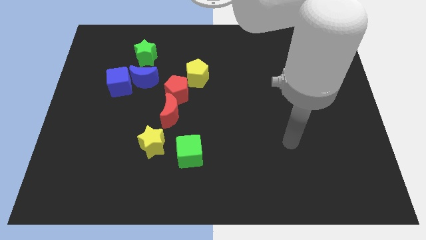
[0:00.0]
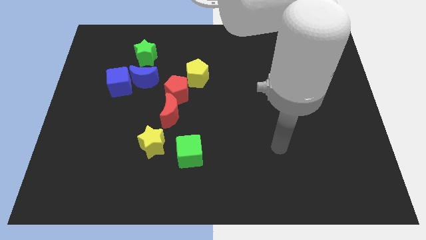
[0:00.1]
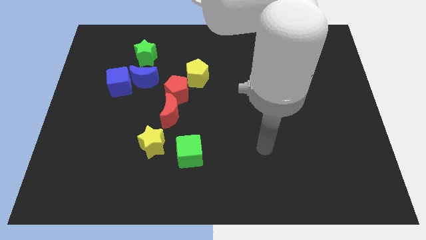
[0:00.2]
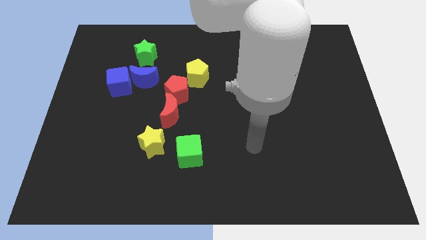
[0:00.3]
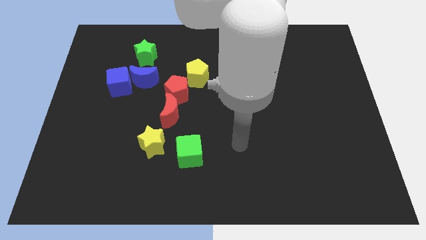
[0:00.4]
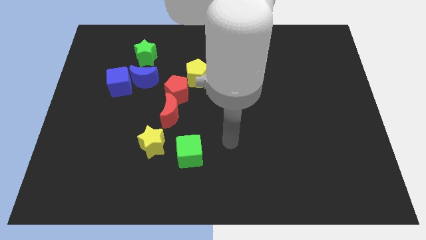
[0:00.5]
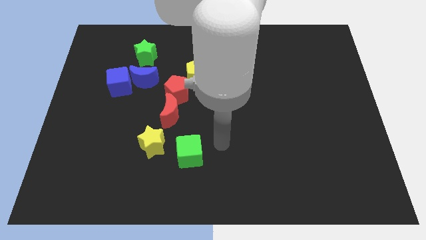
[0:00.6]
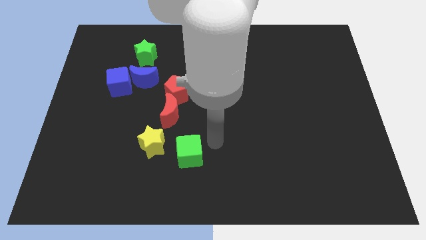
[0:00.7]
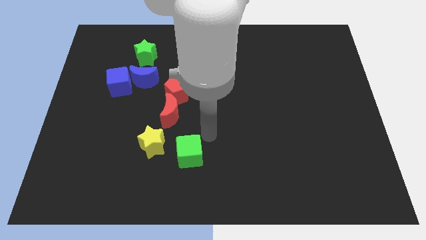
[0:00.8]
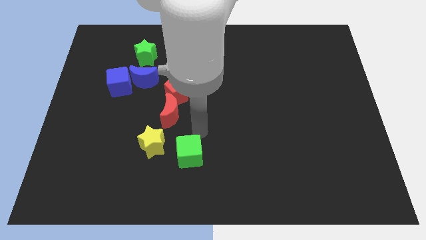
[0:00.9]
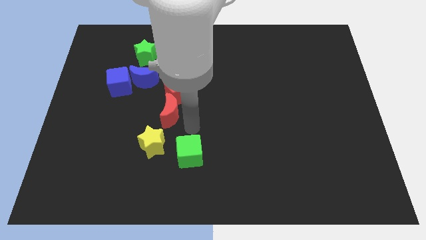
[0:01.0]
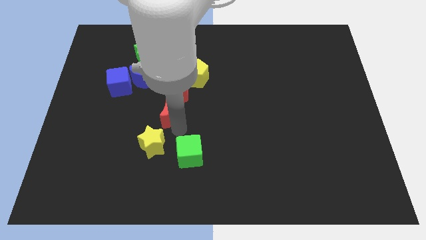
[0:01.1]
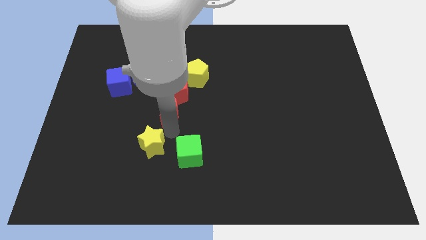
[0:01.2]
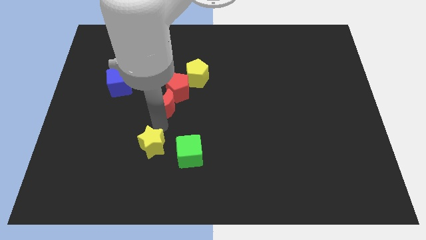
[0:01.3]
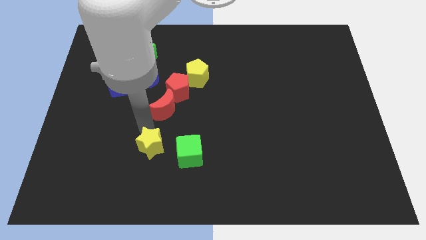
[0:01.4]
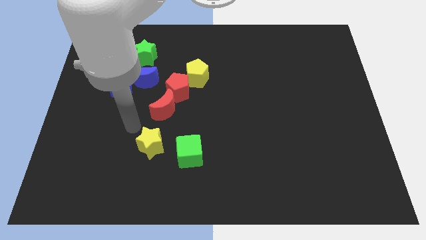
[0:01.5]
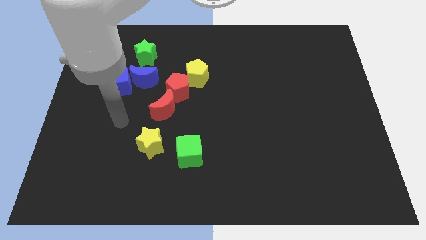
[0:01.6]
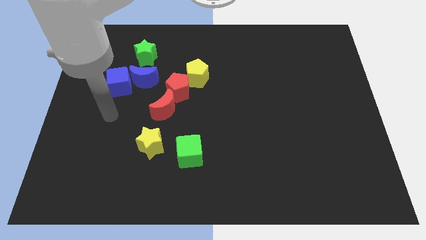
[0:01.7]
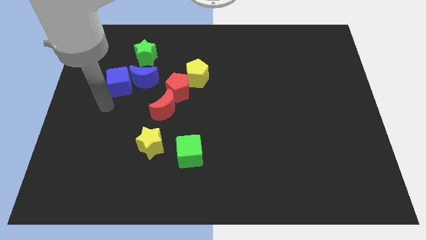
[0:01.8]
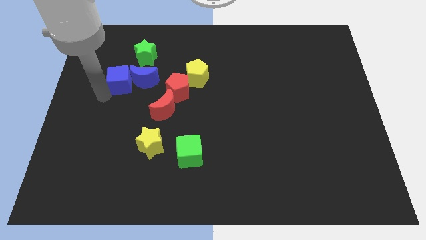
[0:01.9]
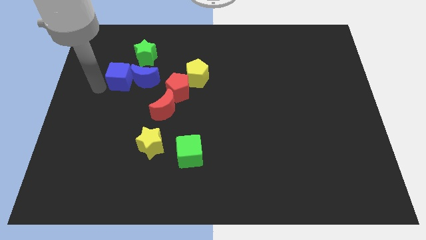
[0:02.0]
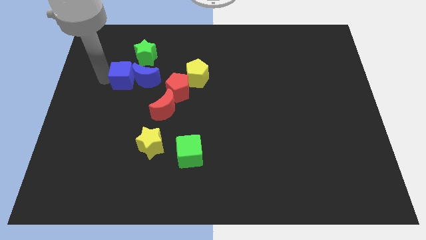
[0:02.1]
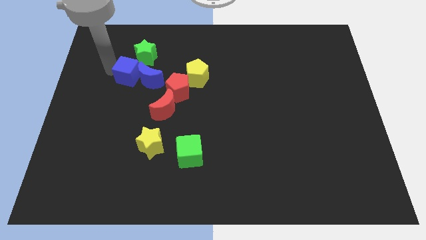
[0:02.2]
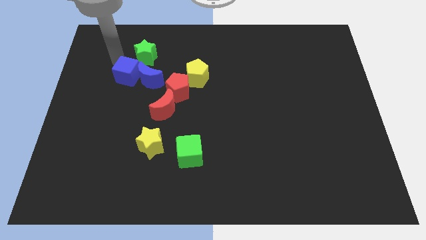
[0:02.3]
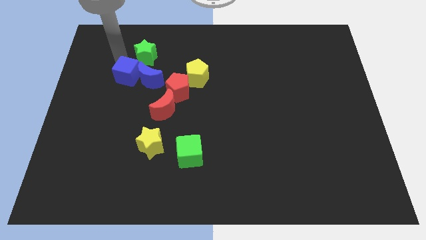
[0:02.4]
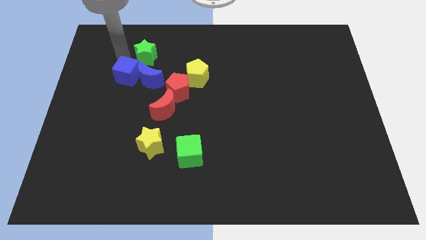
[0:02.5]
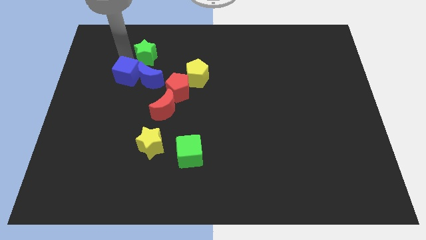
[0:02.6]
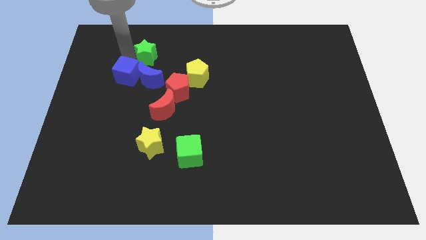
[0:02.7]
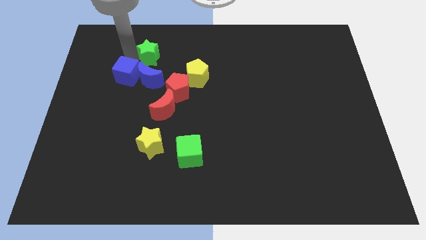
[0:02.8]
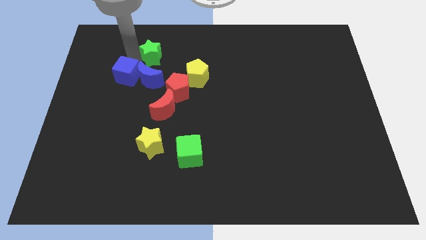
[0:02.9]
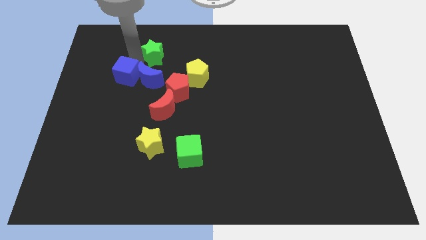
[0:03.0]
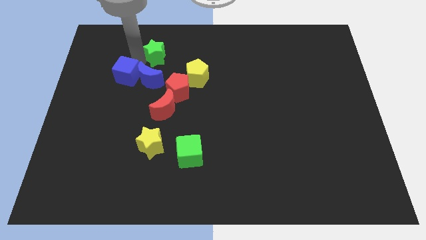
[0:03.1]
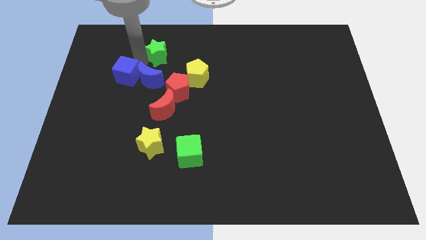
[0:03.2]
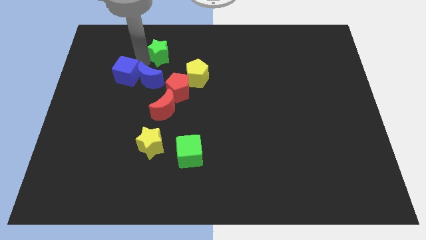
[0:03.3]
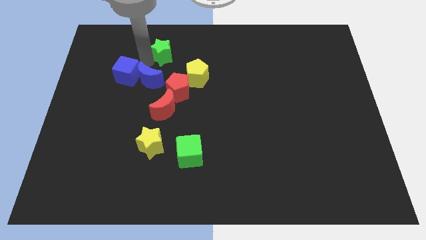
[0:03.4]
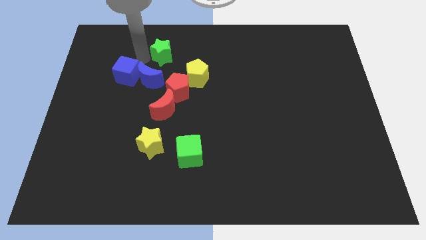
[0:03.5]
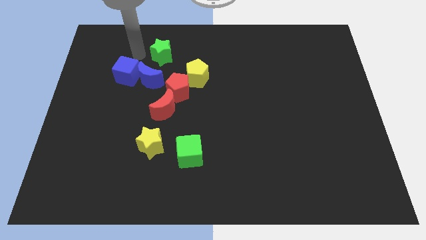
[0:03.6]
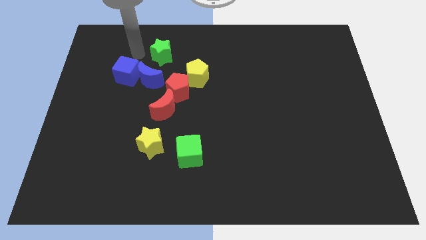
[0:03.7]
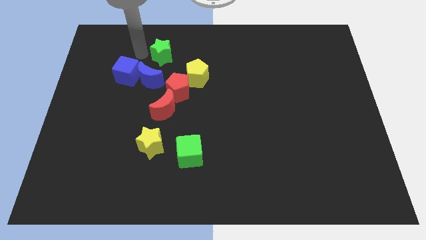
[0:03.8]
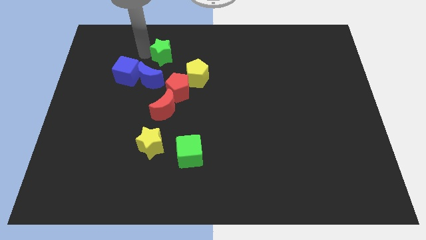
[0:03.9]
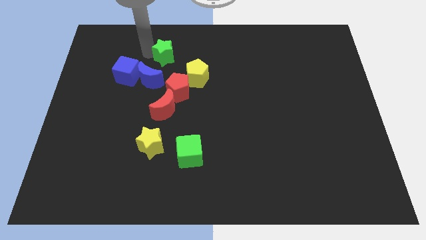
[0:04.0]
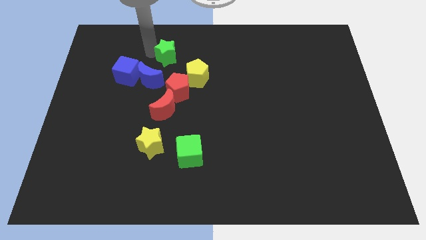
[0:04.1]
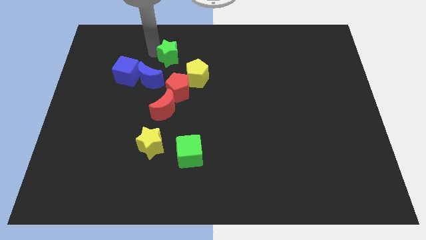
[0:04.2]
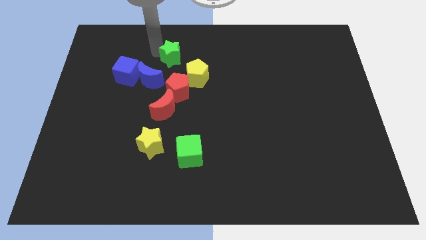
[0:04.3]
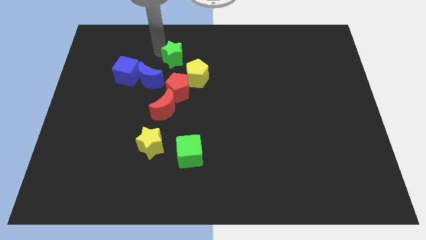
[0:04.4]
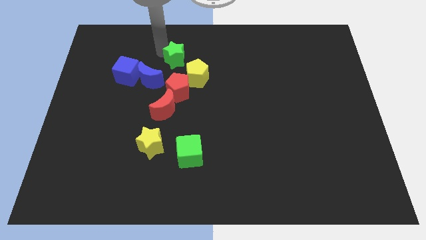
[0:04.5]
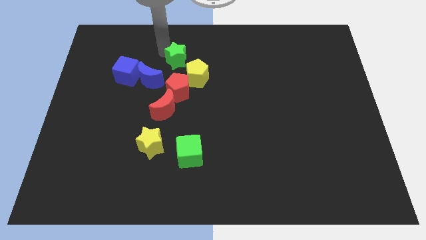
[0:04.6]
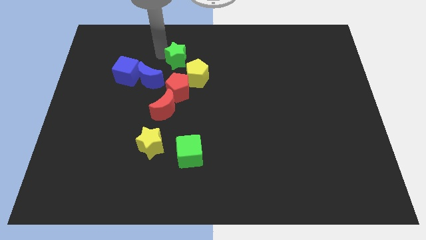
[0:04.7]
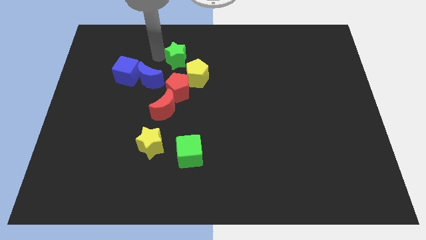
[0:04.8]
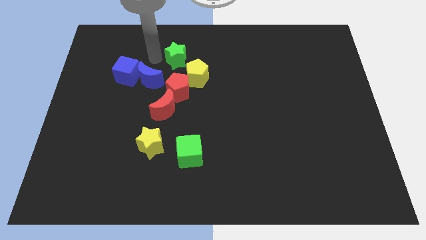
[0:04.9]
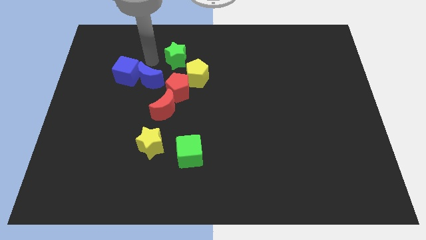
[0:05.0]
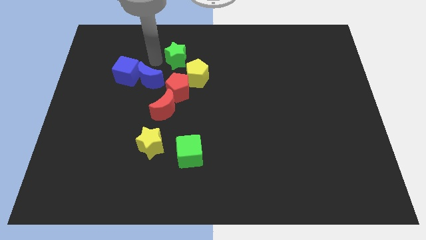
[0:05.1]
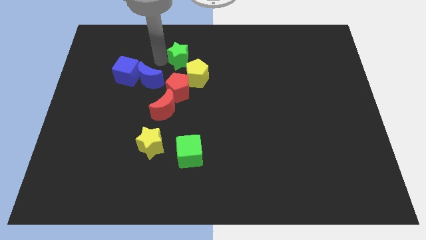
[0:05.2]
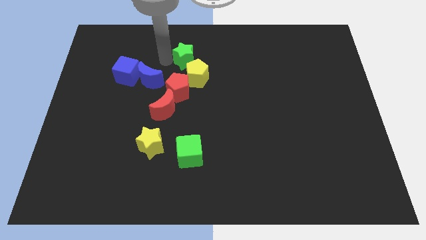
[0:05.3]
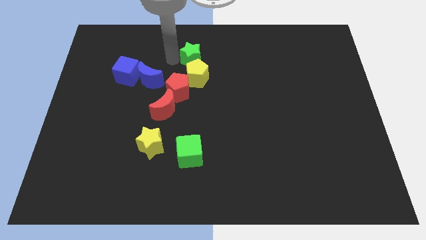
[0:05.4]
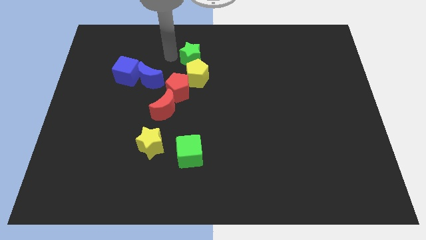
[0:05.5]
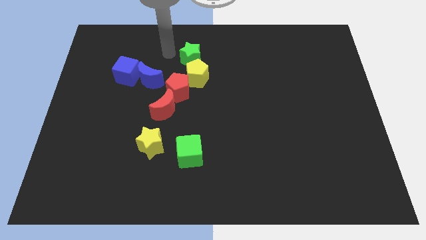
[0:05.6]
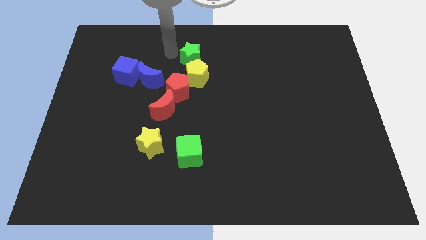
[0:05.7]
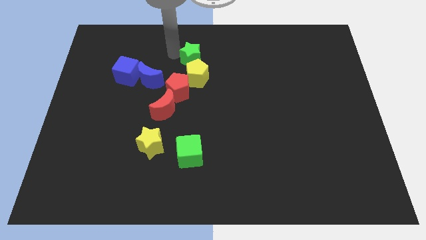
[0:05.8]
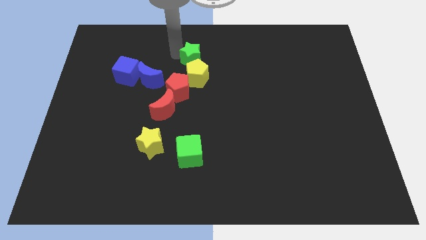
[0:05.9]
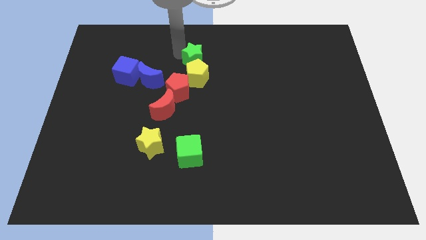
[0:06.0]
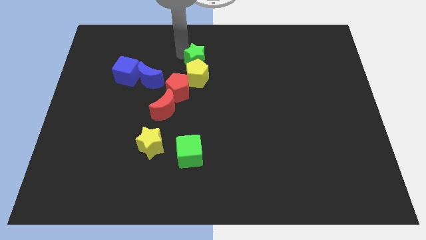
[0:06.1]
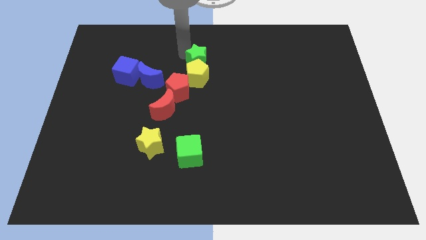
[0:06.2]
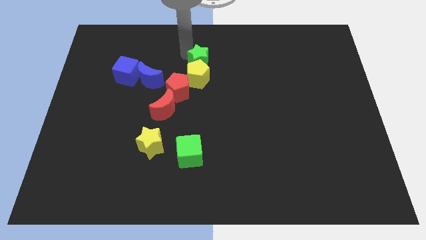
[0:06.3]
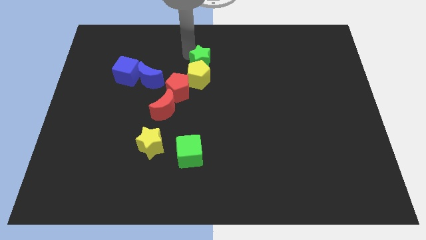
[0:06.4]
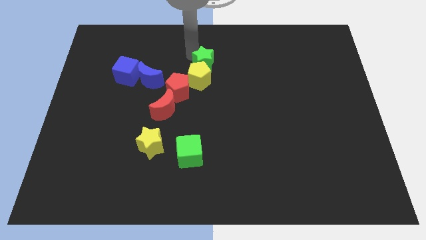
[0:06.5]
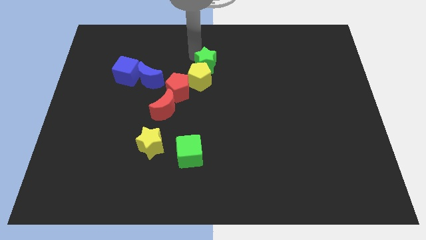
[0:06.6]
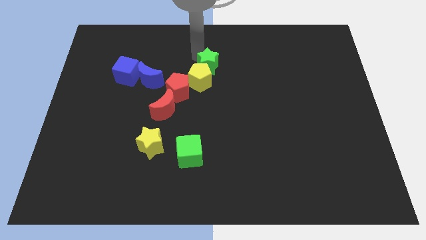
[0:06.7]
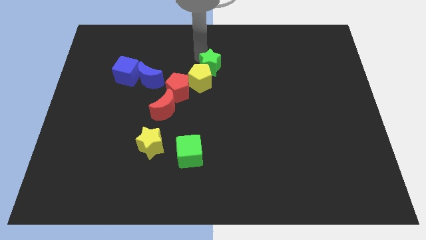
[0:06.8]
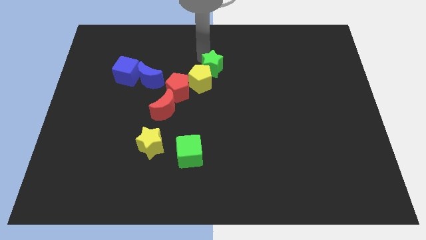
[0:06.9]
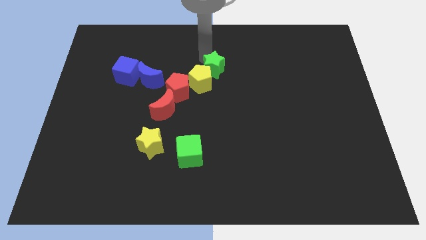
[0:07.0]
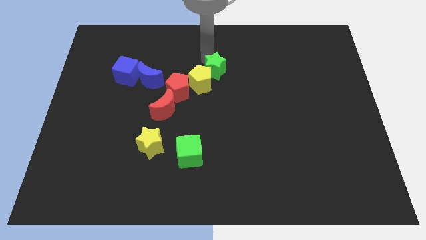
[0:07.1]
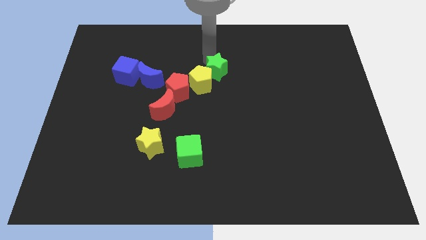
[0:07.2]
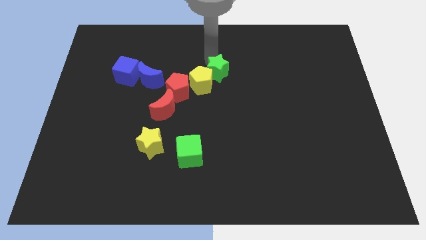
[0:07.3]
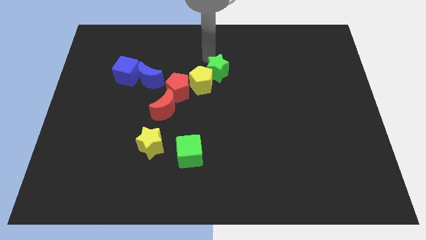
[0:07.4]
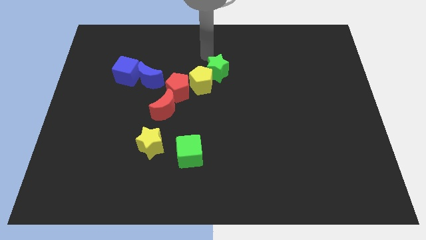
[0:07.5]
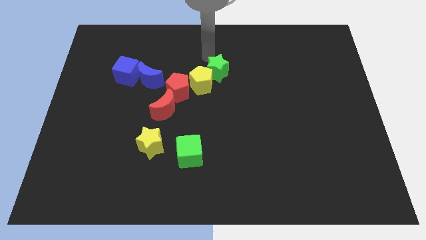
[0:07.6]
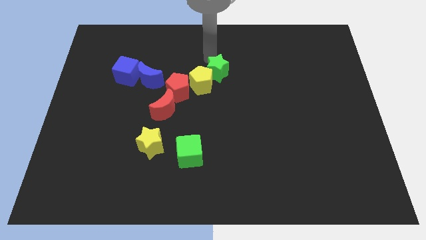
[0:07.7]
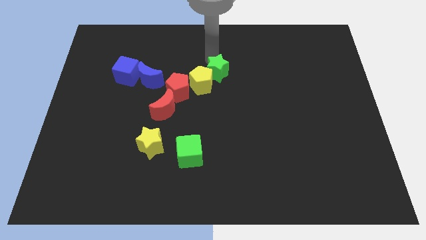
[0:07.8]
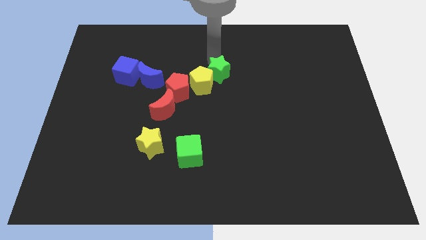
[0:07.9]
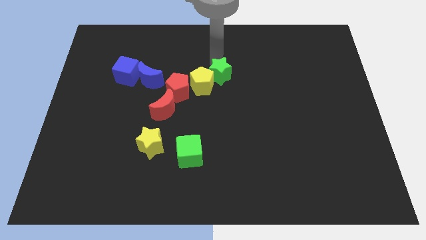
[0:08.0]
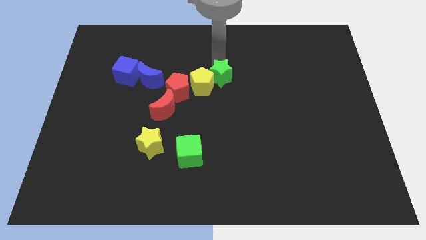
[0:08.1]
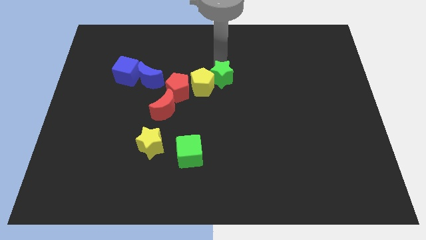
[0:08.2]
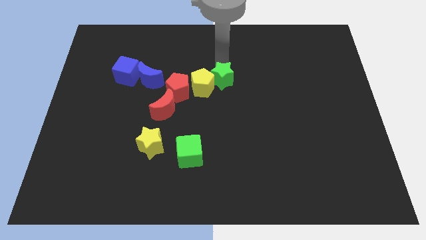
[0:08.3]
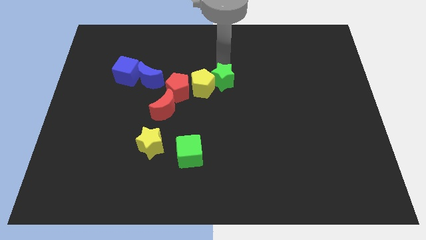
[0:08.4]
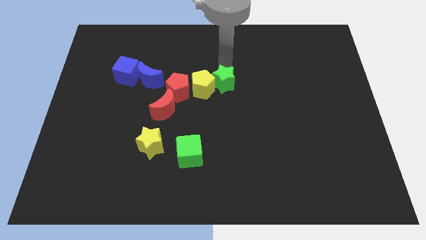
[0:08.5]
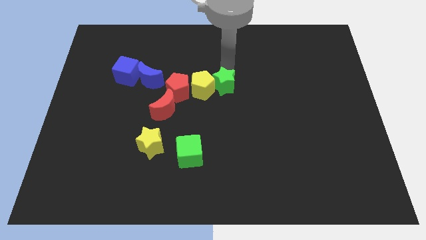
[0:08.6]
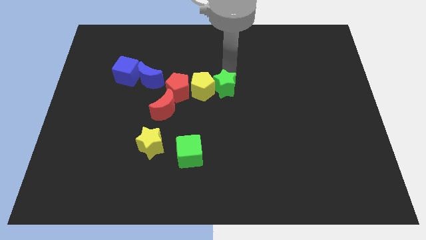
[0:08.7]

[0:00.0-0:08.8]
move the green star downwards and to the right diagonally
